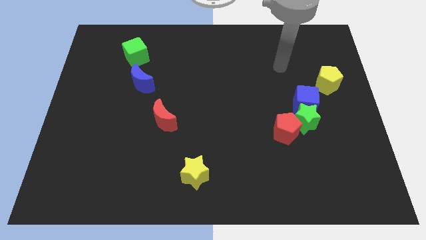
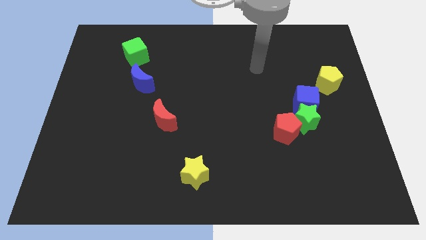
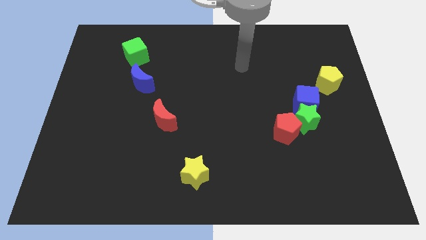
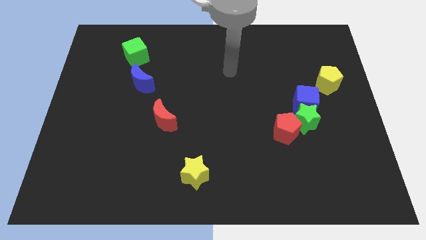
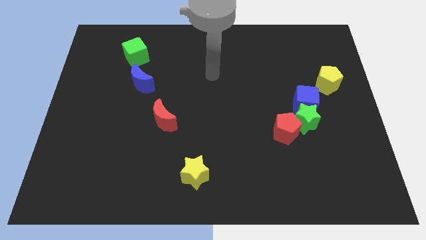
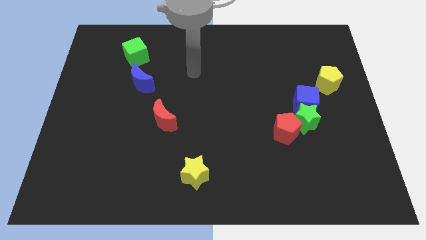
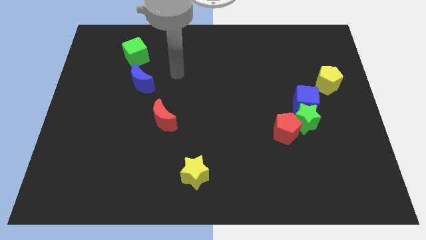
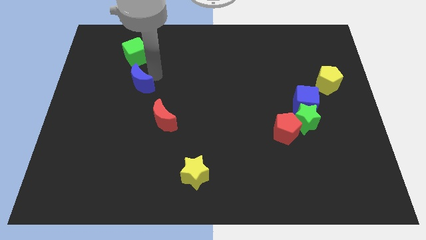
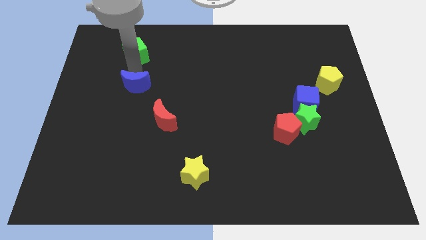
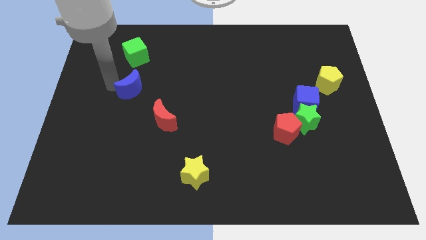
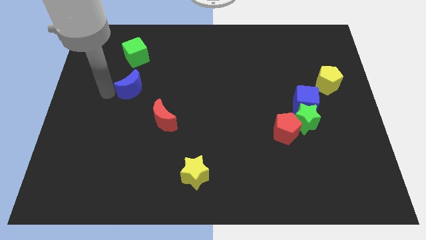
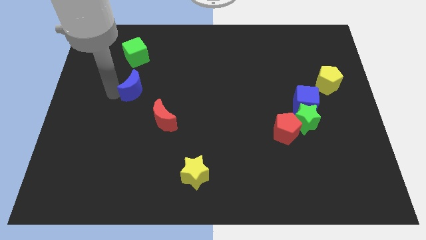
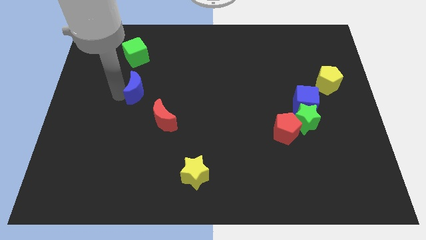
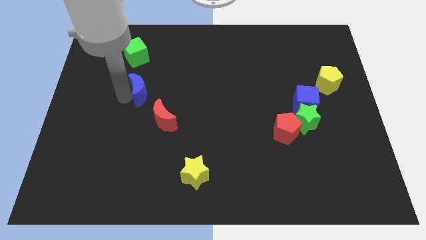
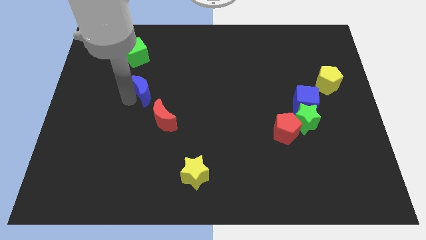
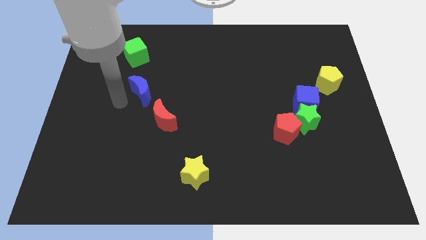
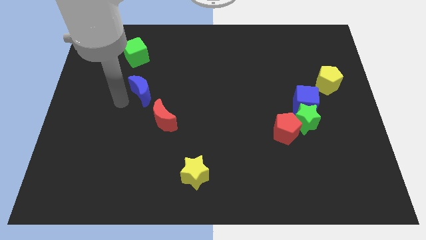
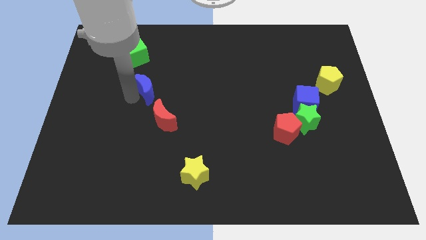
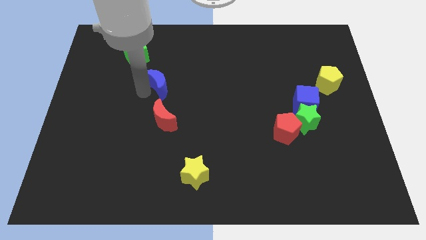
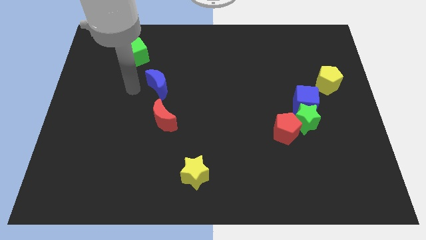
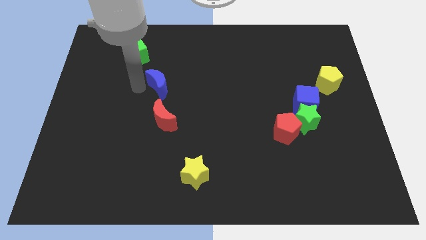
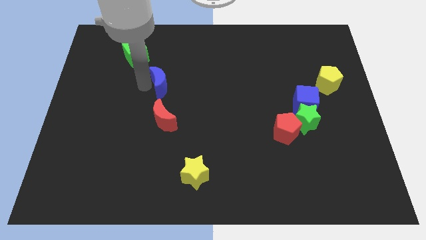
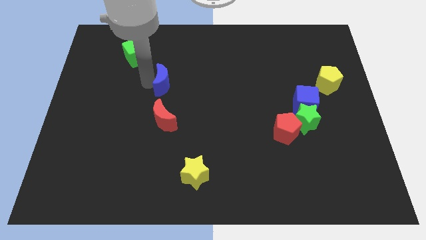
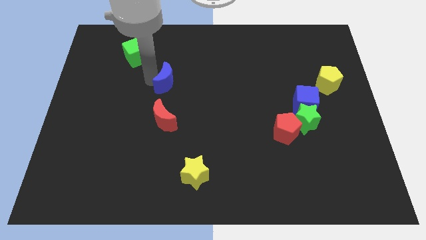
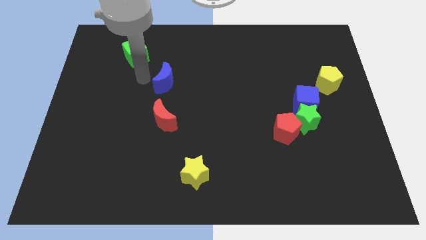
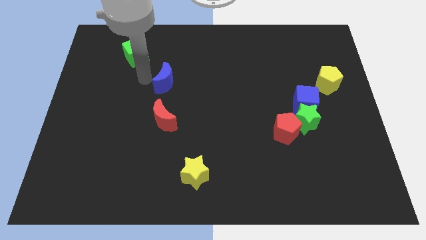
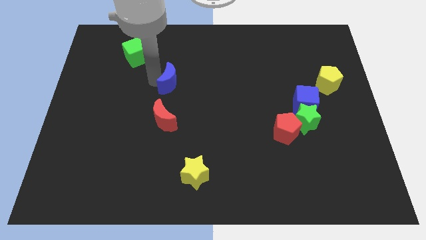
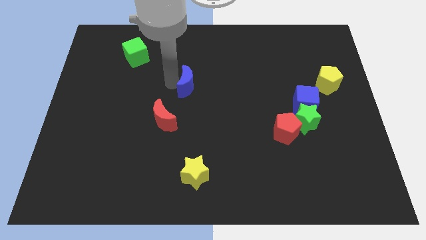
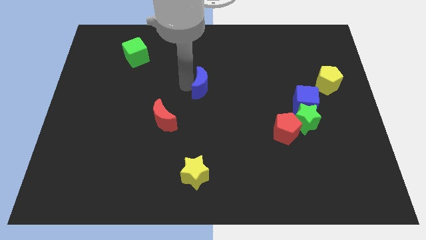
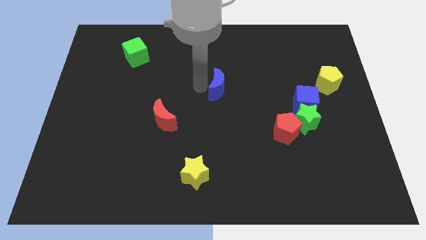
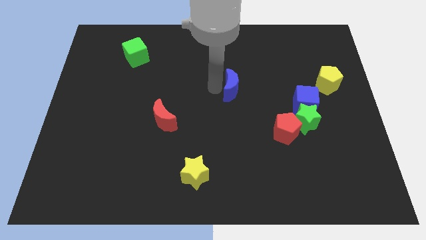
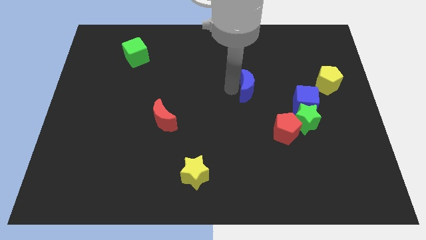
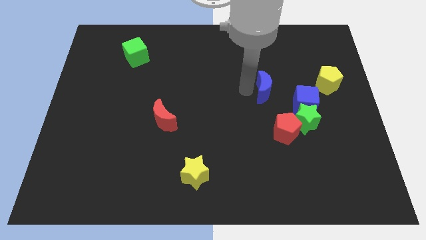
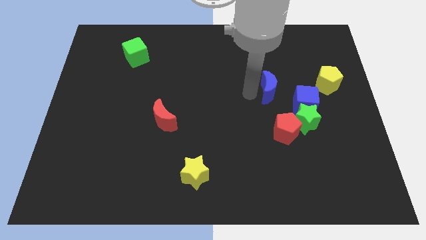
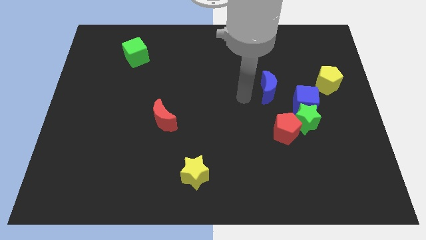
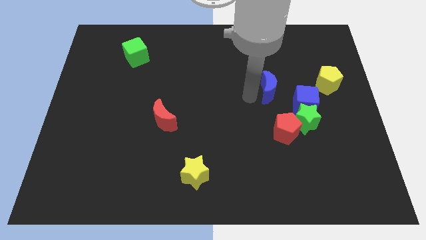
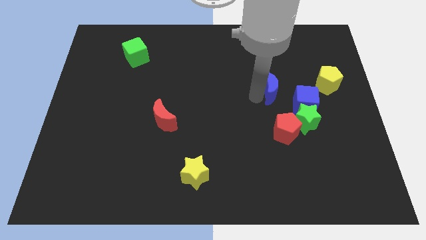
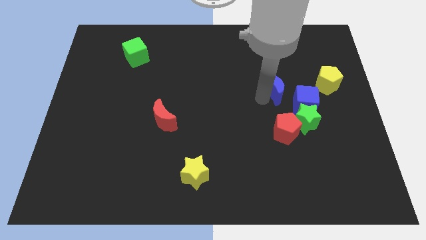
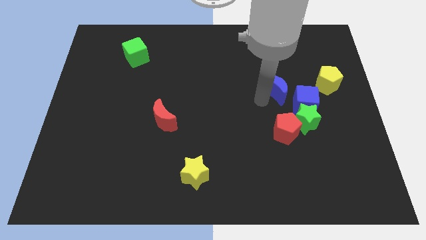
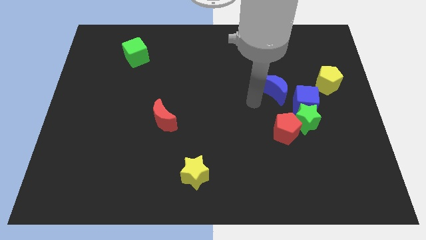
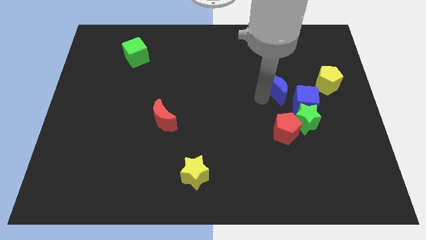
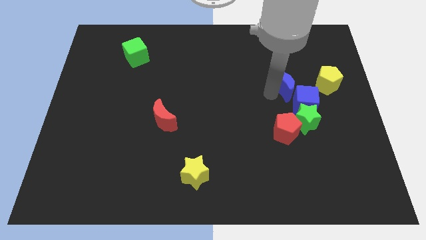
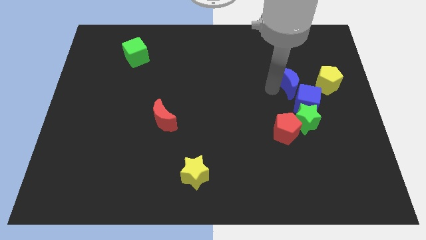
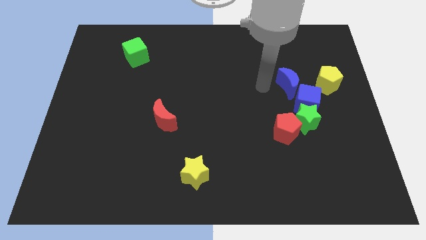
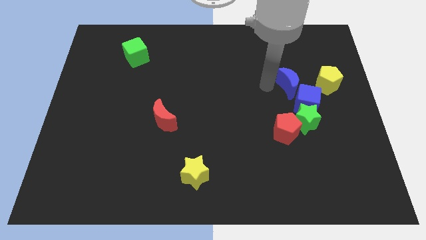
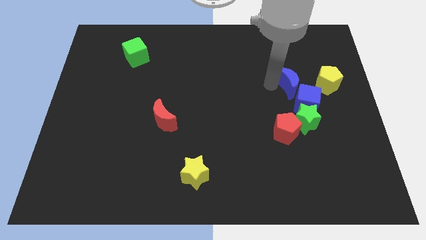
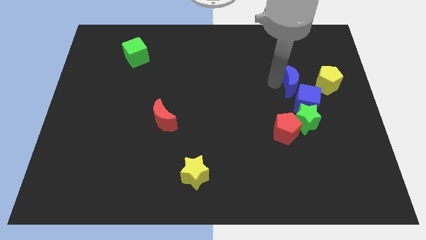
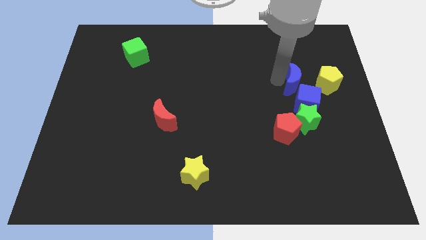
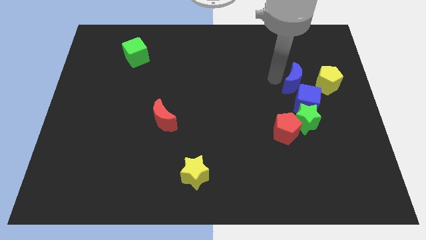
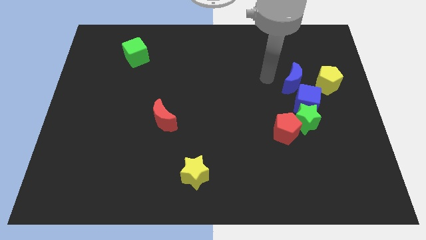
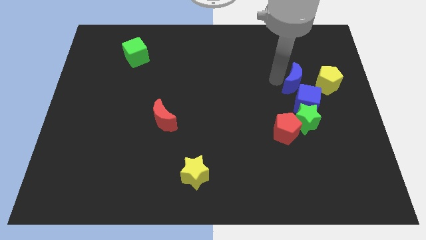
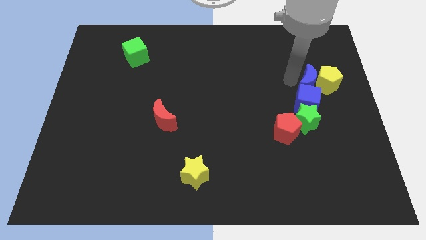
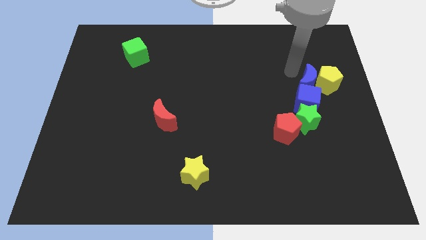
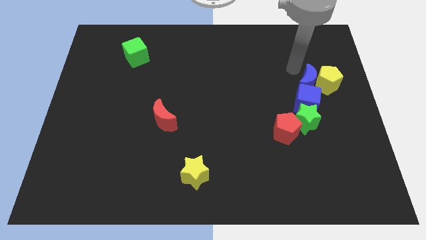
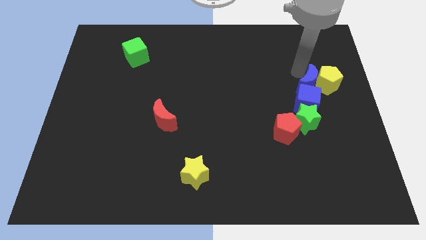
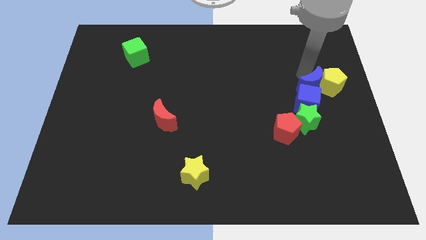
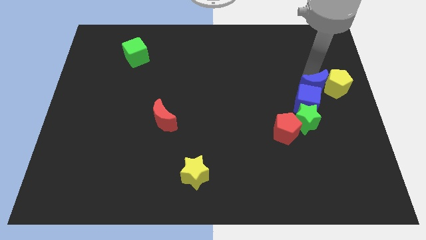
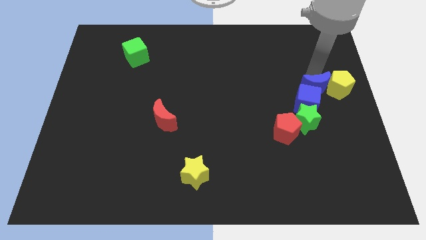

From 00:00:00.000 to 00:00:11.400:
slide the blue moon diagonally up and to the right of the green star
